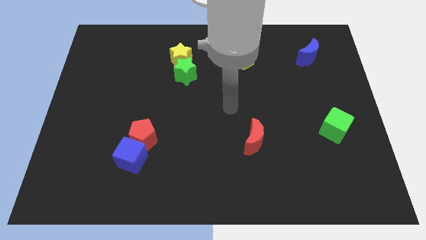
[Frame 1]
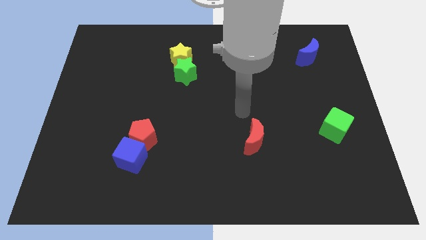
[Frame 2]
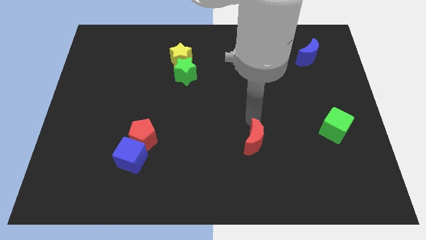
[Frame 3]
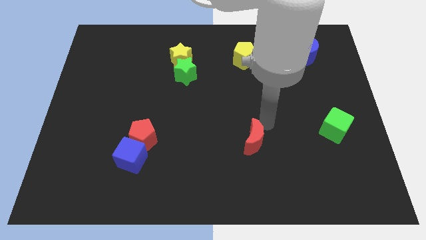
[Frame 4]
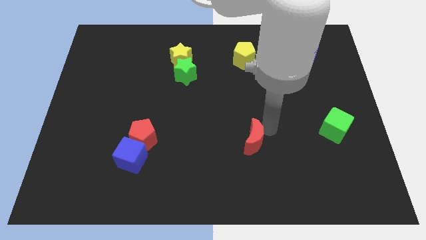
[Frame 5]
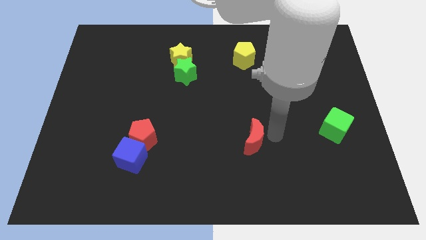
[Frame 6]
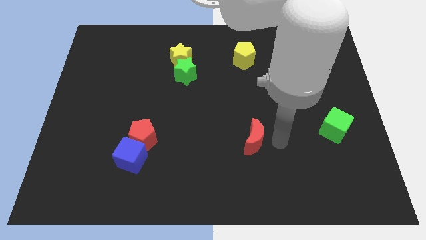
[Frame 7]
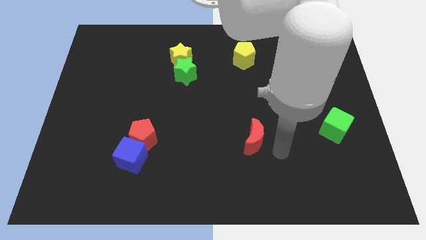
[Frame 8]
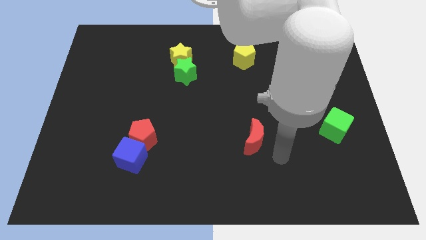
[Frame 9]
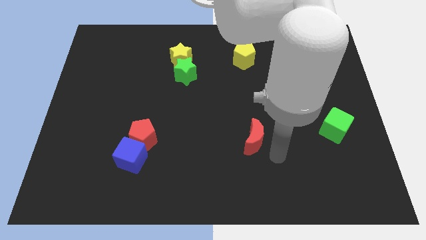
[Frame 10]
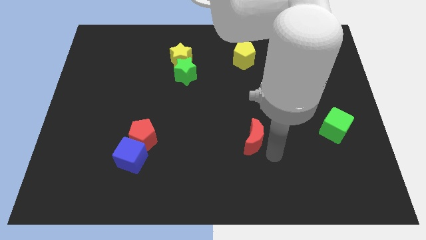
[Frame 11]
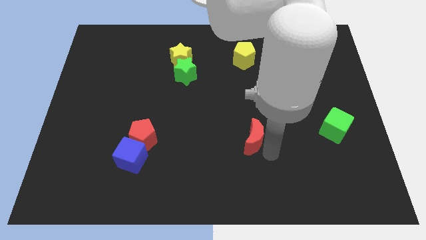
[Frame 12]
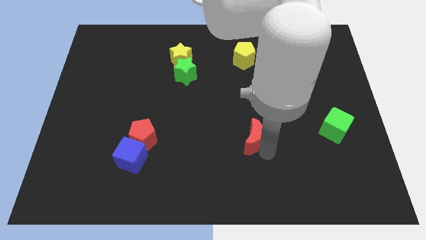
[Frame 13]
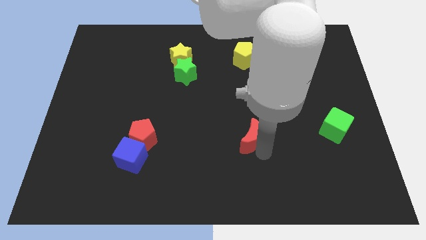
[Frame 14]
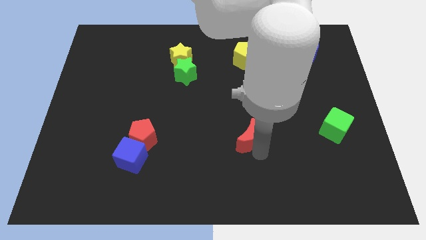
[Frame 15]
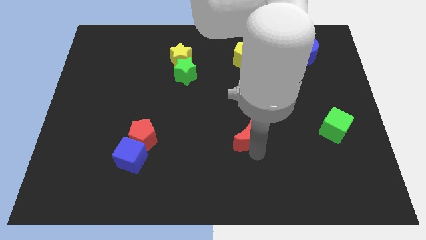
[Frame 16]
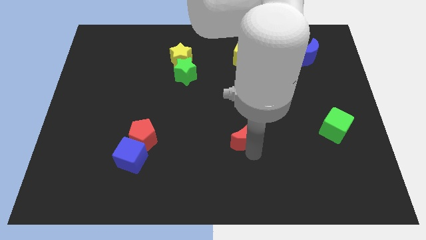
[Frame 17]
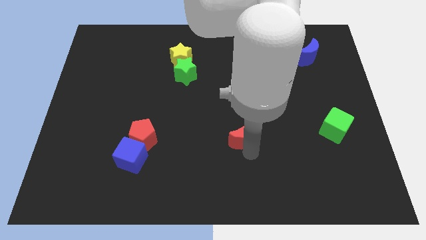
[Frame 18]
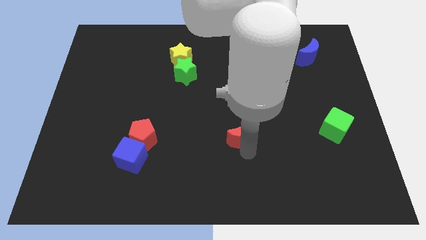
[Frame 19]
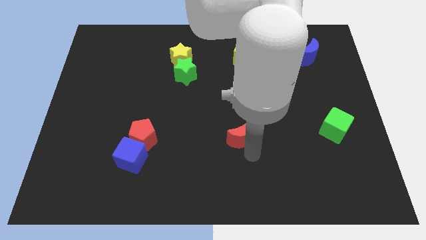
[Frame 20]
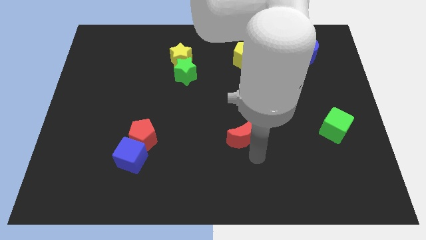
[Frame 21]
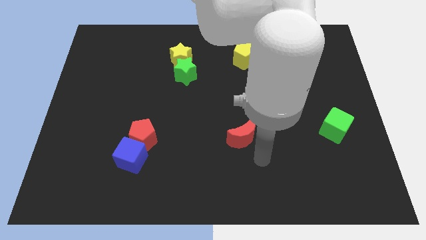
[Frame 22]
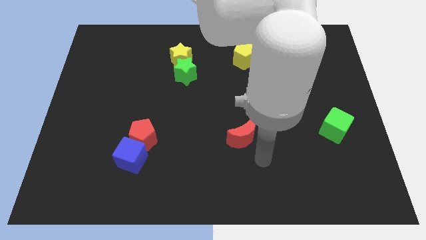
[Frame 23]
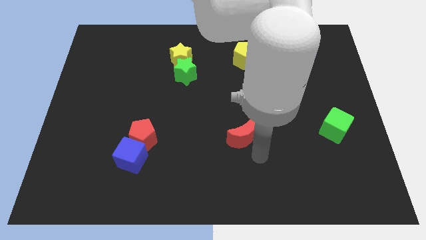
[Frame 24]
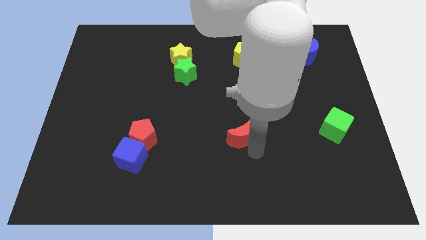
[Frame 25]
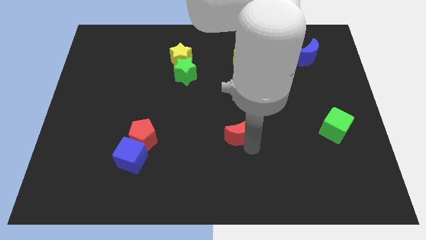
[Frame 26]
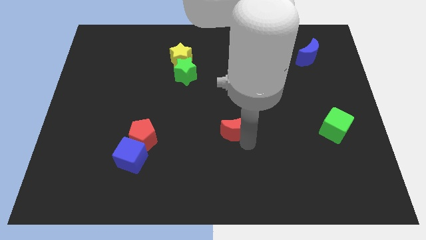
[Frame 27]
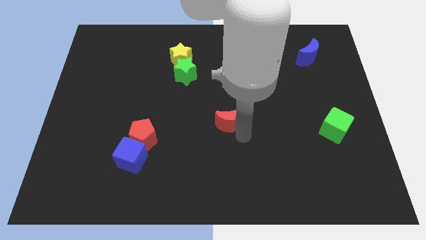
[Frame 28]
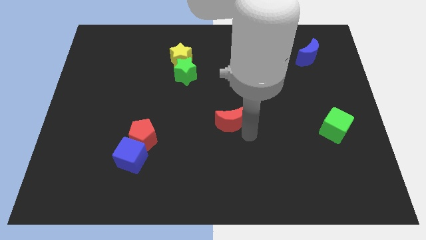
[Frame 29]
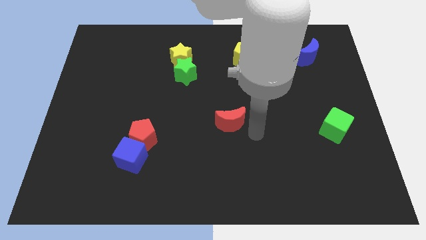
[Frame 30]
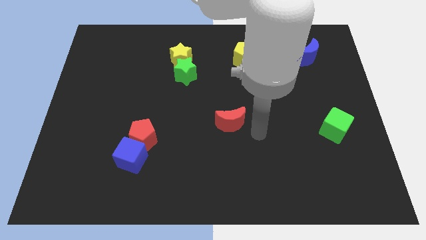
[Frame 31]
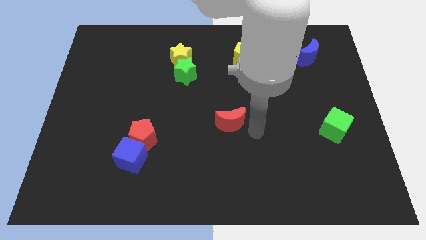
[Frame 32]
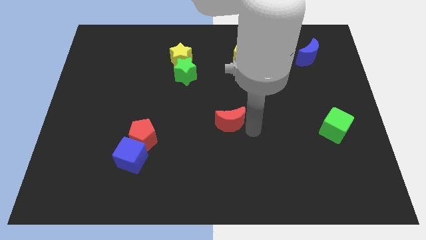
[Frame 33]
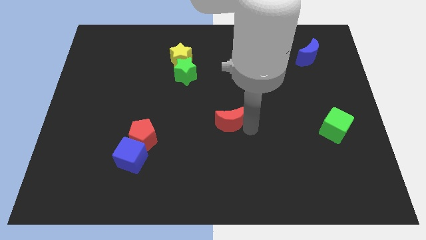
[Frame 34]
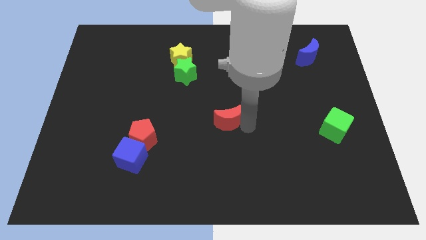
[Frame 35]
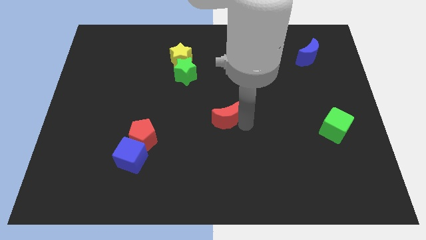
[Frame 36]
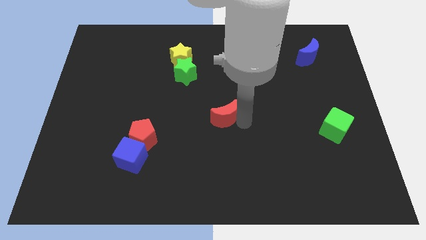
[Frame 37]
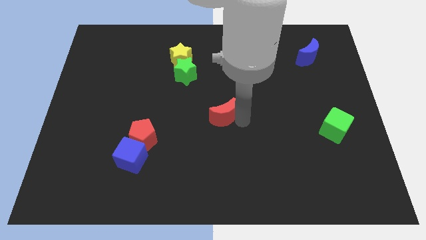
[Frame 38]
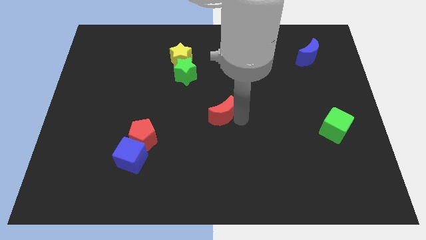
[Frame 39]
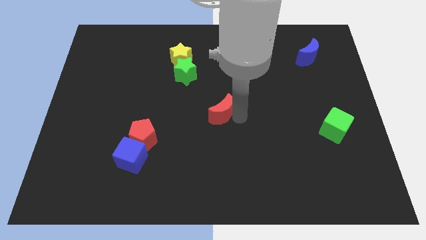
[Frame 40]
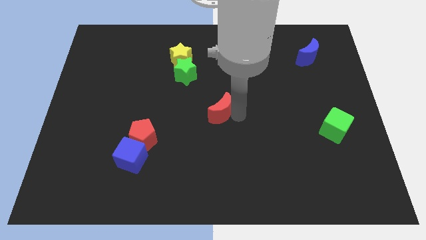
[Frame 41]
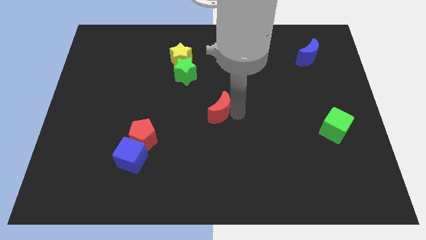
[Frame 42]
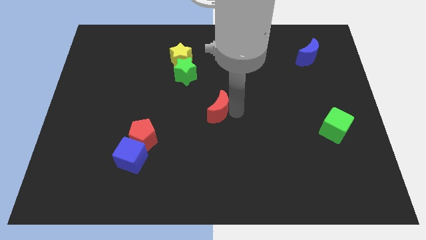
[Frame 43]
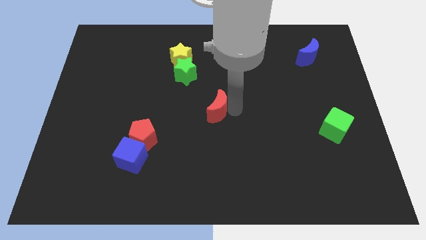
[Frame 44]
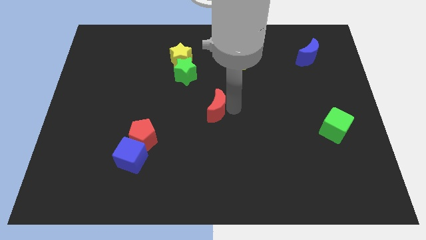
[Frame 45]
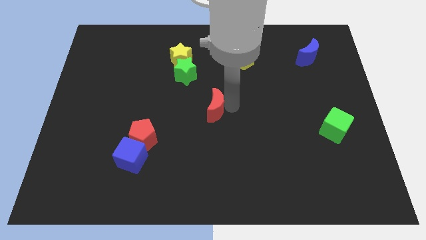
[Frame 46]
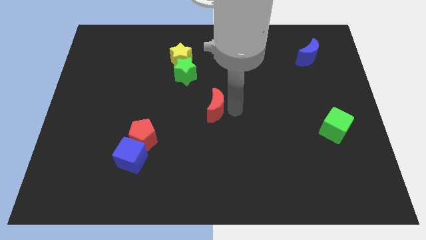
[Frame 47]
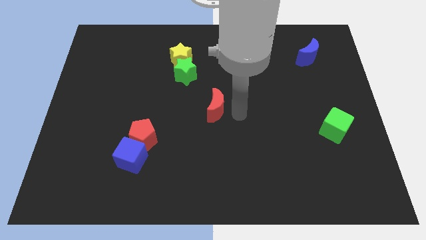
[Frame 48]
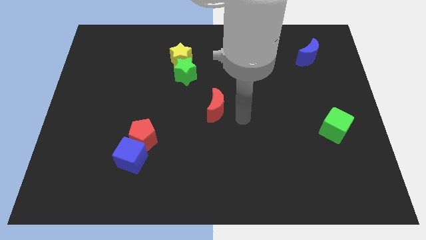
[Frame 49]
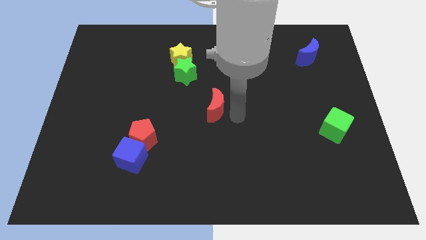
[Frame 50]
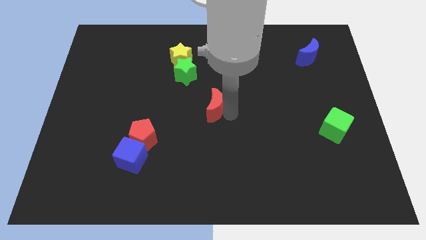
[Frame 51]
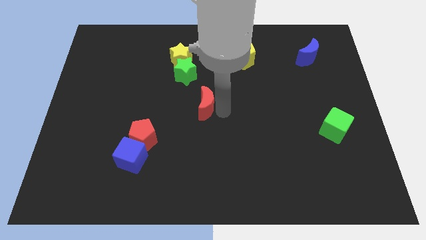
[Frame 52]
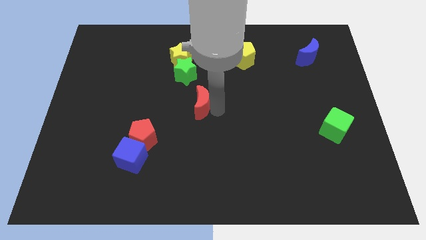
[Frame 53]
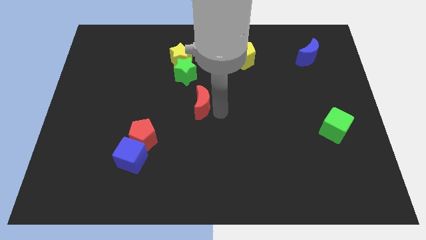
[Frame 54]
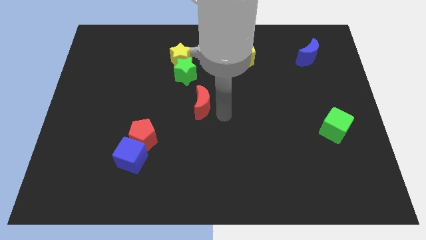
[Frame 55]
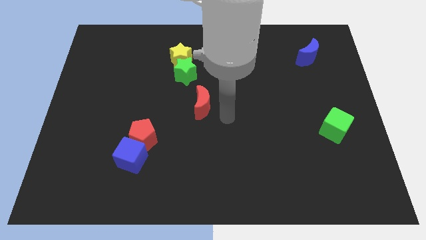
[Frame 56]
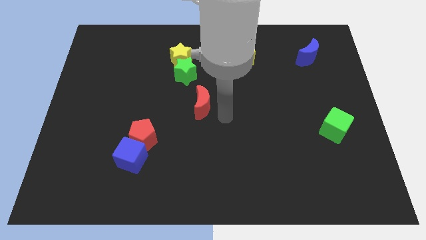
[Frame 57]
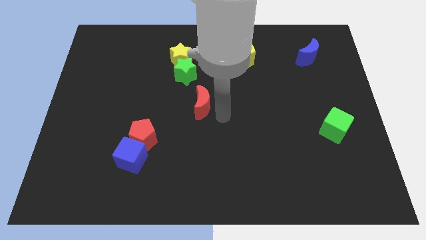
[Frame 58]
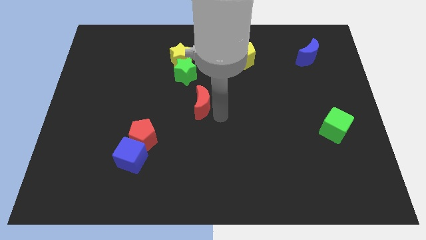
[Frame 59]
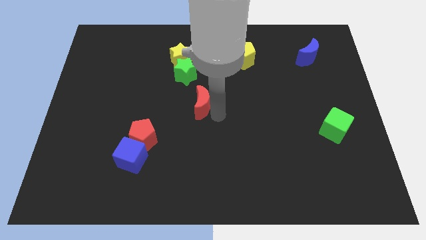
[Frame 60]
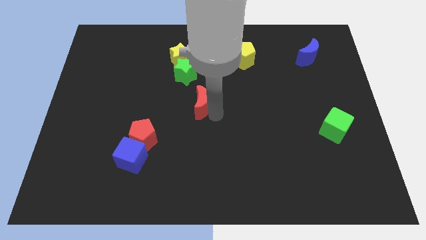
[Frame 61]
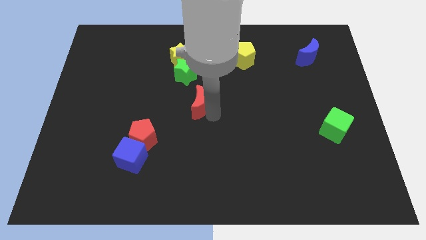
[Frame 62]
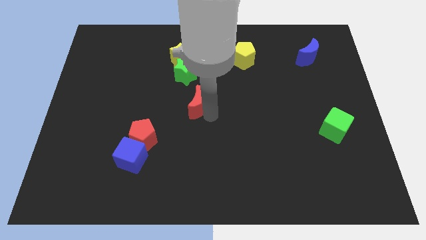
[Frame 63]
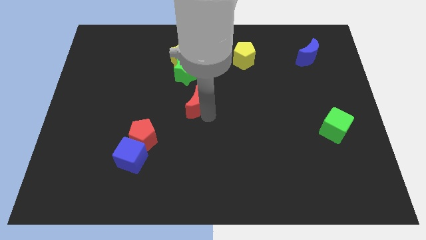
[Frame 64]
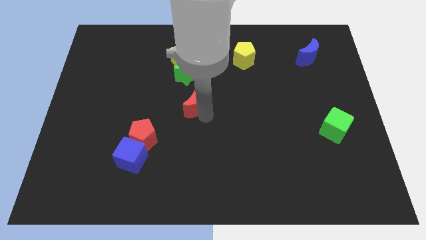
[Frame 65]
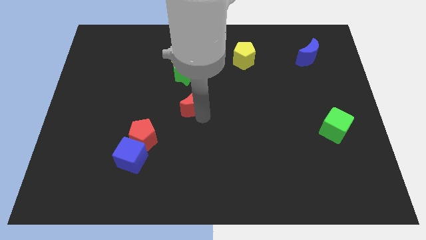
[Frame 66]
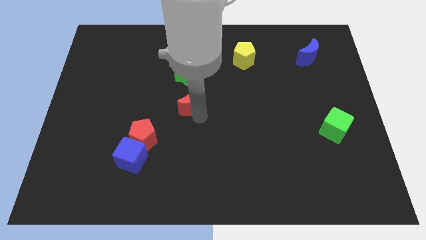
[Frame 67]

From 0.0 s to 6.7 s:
push the red moon to the bottom side of the yellow star

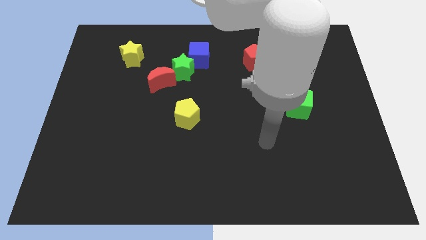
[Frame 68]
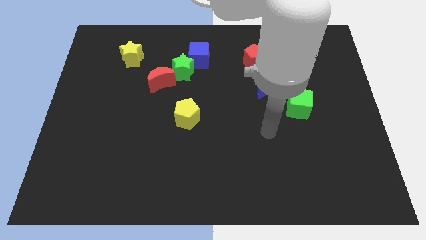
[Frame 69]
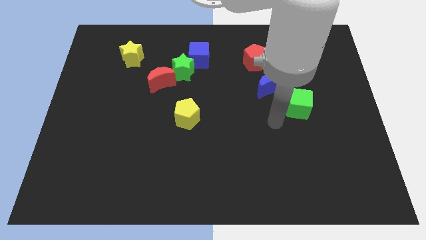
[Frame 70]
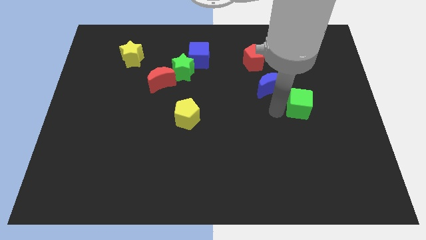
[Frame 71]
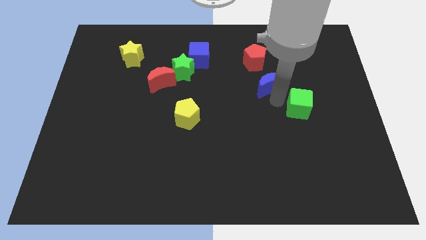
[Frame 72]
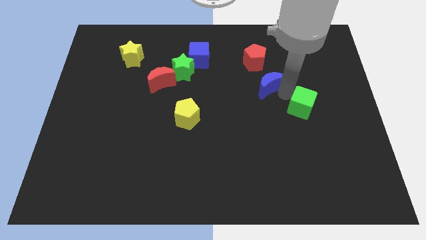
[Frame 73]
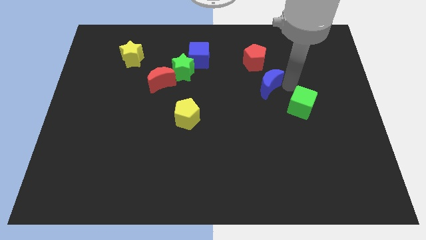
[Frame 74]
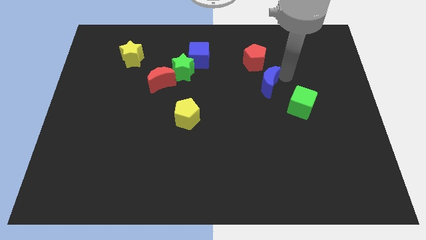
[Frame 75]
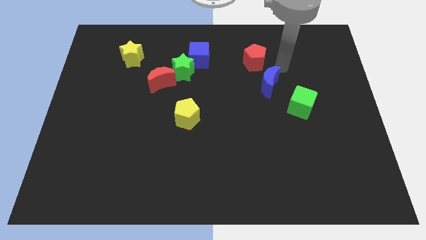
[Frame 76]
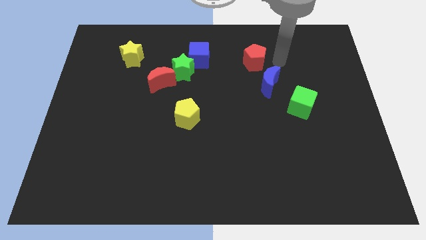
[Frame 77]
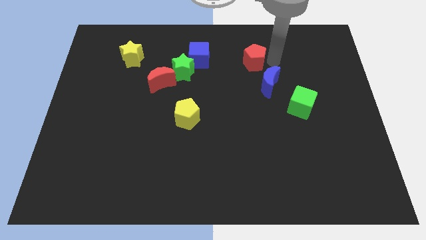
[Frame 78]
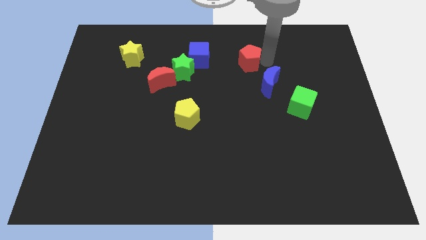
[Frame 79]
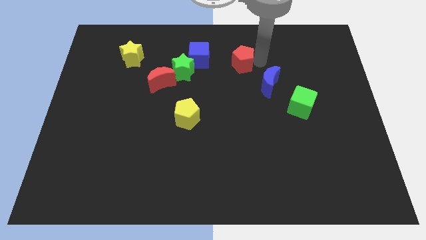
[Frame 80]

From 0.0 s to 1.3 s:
move the red pentagon right of the green star
